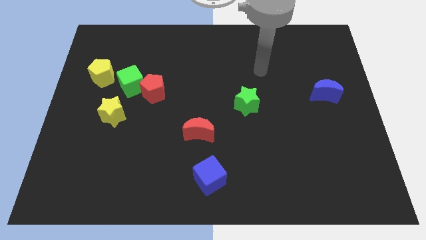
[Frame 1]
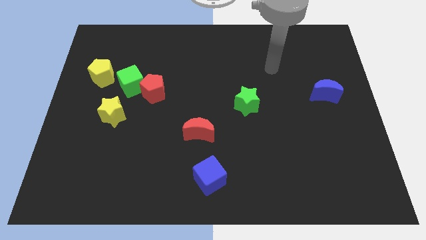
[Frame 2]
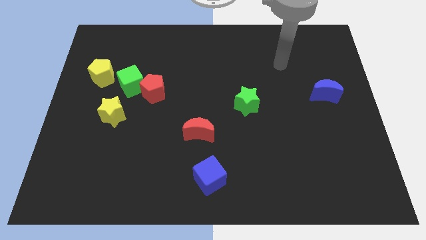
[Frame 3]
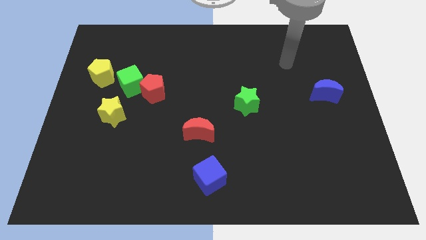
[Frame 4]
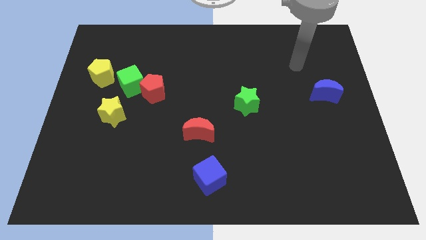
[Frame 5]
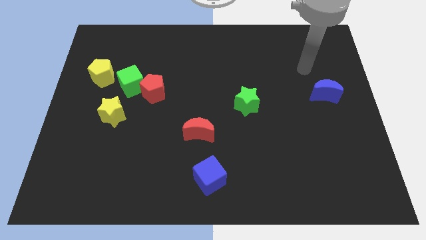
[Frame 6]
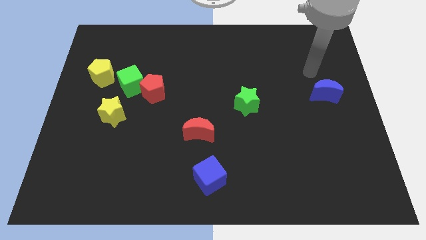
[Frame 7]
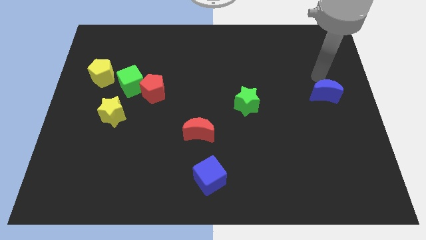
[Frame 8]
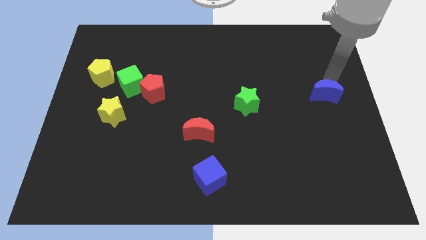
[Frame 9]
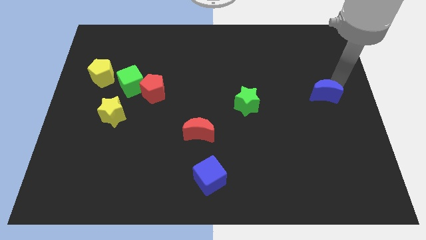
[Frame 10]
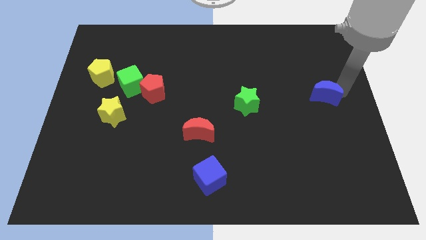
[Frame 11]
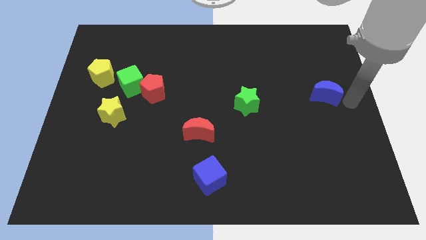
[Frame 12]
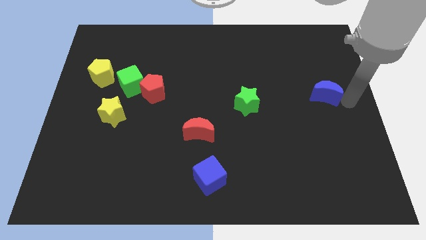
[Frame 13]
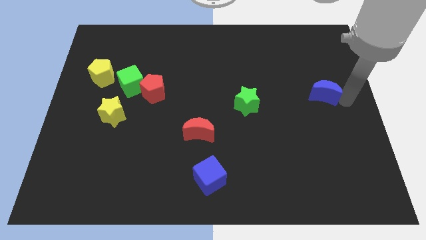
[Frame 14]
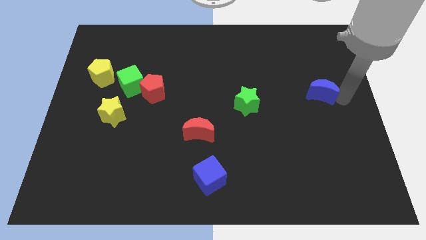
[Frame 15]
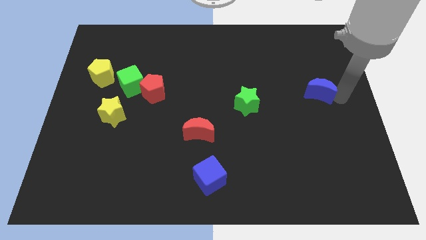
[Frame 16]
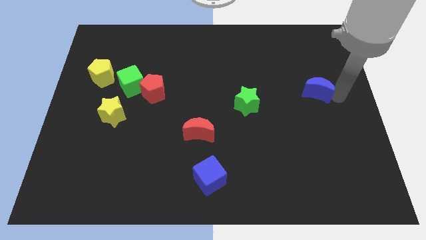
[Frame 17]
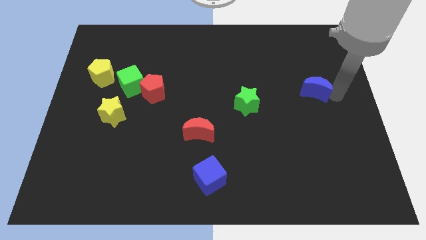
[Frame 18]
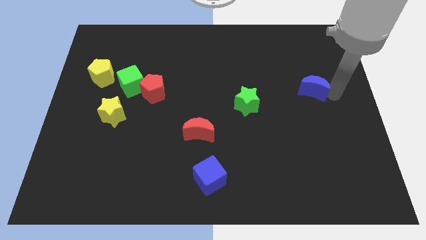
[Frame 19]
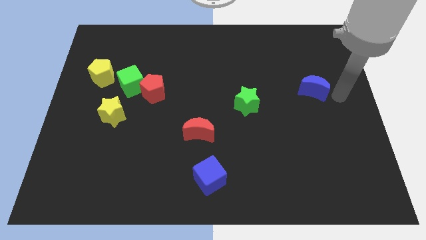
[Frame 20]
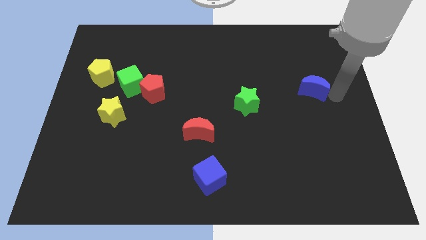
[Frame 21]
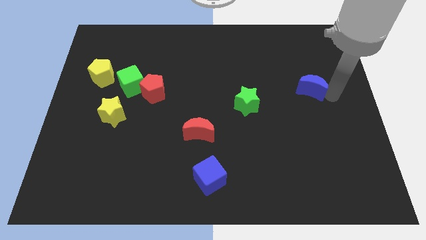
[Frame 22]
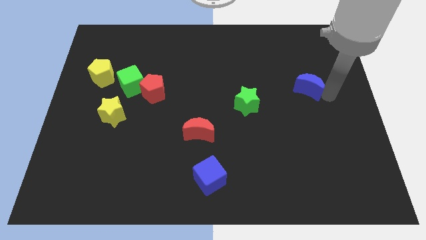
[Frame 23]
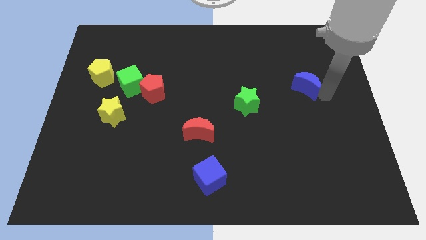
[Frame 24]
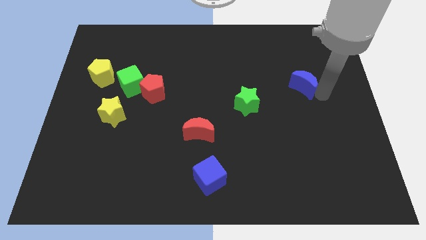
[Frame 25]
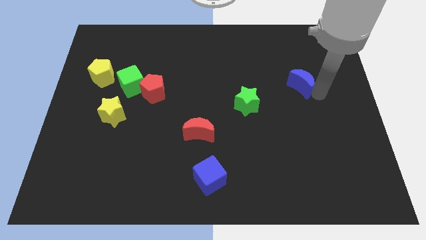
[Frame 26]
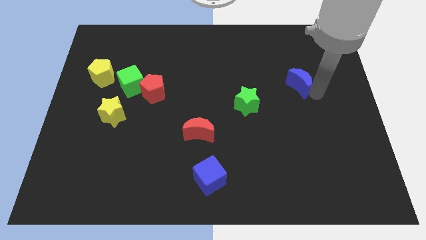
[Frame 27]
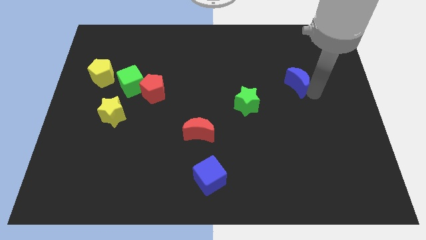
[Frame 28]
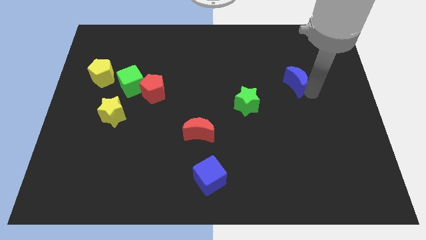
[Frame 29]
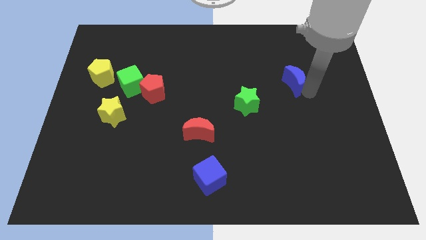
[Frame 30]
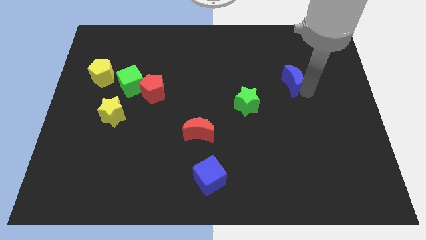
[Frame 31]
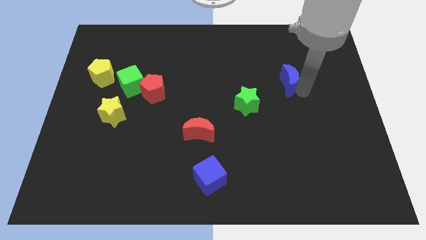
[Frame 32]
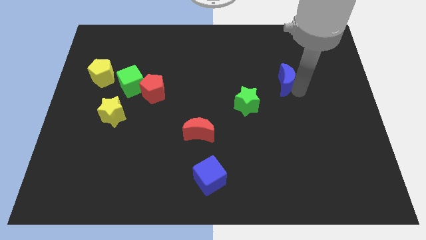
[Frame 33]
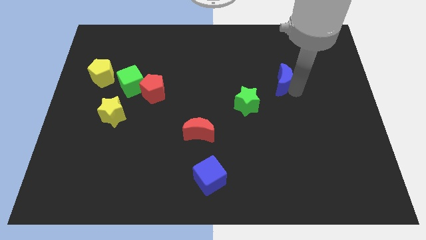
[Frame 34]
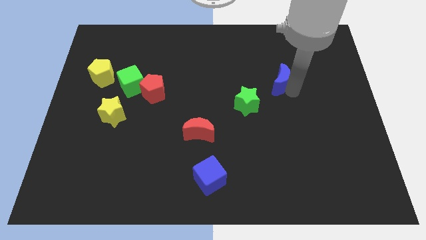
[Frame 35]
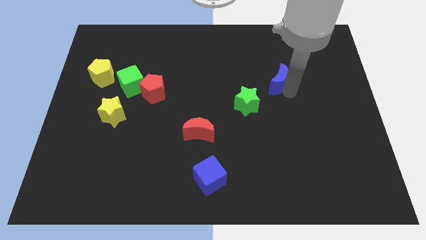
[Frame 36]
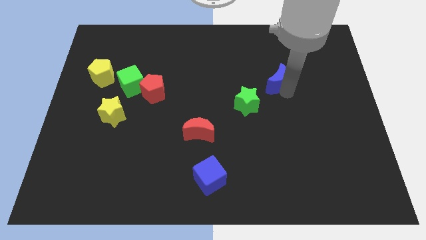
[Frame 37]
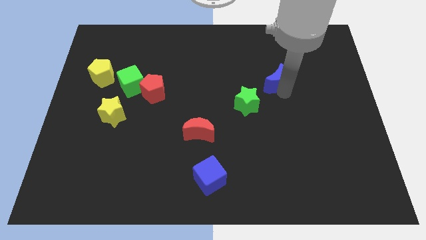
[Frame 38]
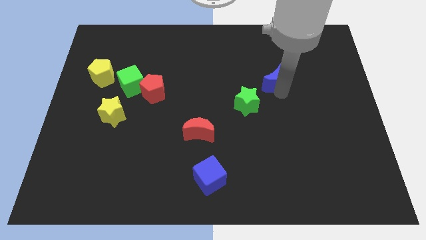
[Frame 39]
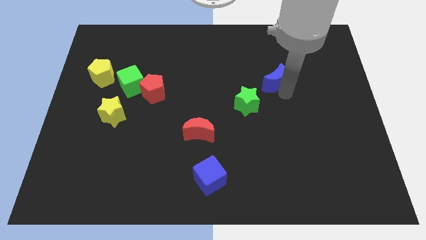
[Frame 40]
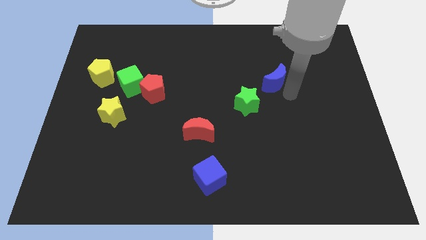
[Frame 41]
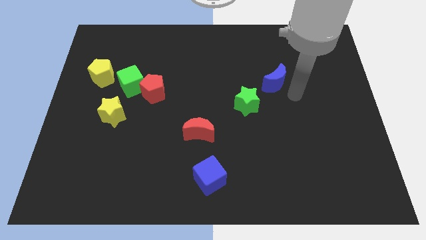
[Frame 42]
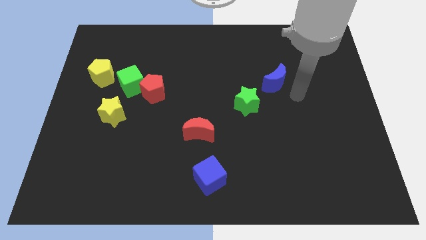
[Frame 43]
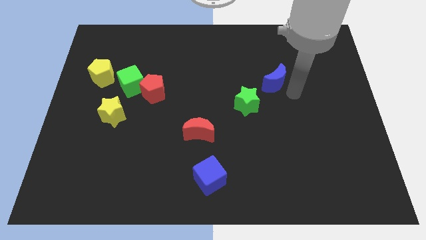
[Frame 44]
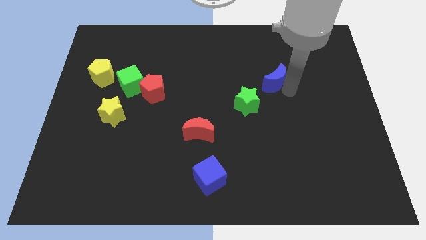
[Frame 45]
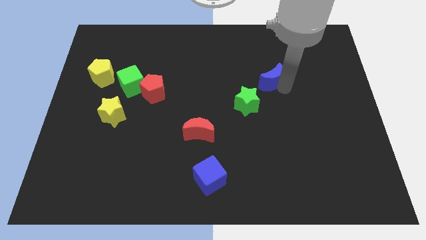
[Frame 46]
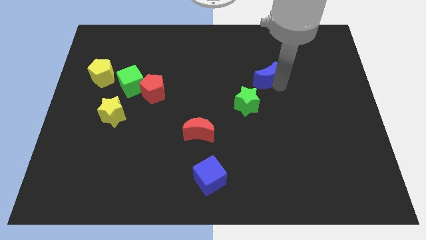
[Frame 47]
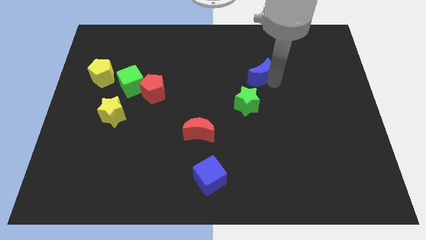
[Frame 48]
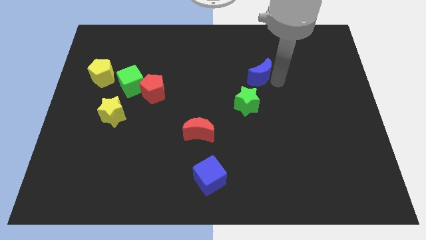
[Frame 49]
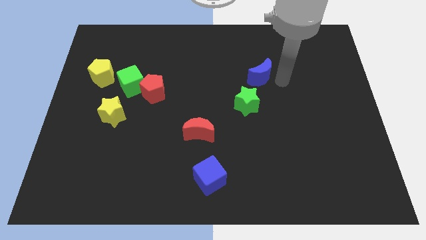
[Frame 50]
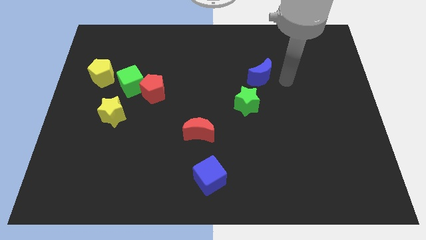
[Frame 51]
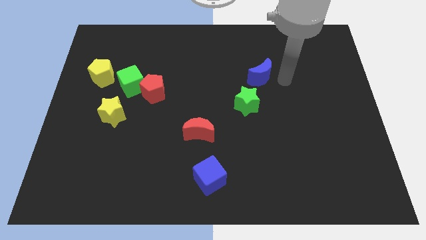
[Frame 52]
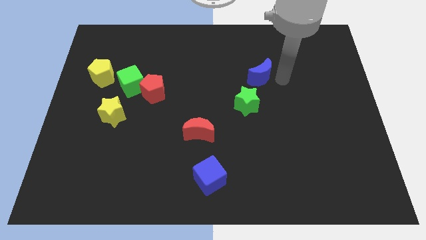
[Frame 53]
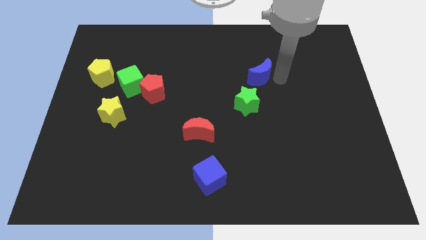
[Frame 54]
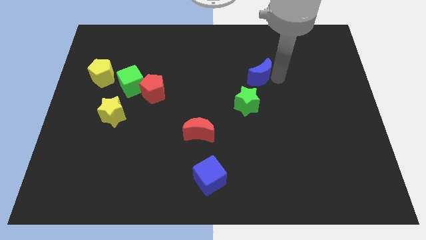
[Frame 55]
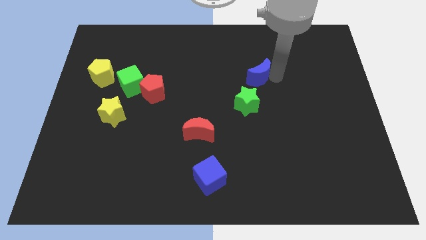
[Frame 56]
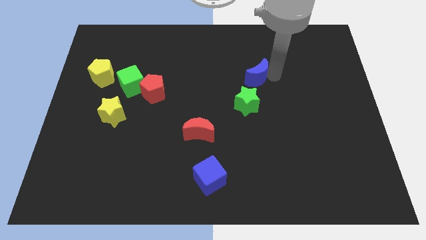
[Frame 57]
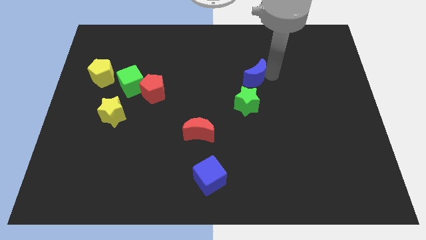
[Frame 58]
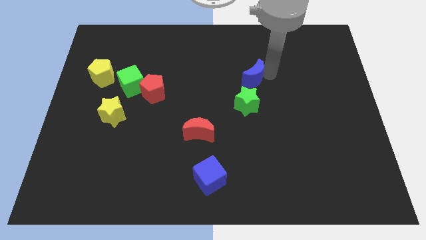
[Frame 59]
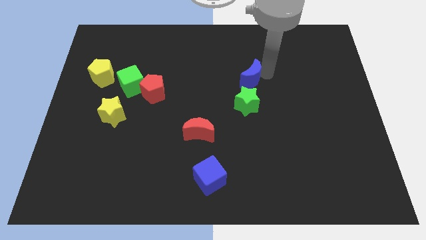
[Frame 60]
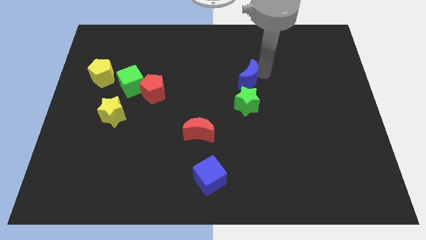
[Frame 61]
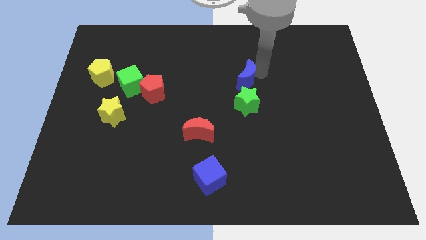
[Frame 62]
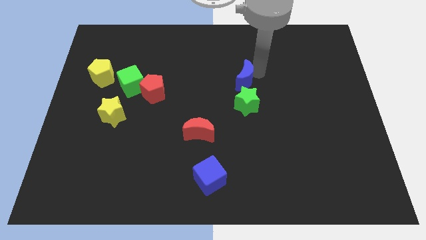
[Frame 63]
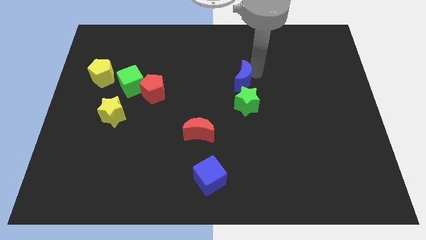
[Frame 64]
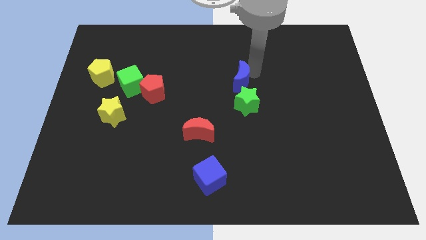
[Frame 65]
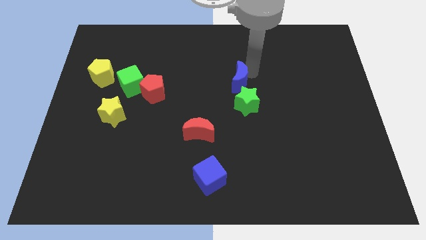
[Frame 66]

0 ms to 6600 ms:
slide the blue moon left

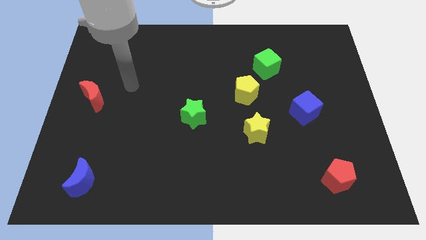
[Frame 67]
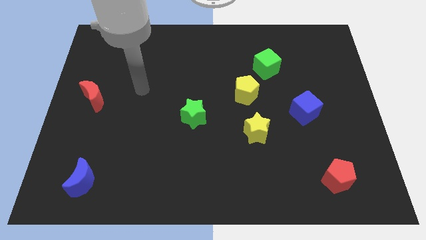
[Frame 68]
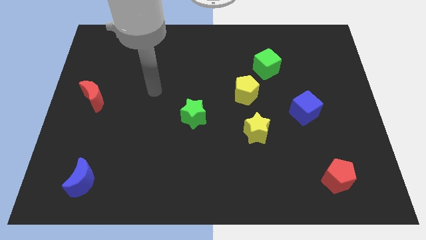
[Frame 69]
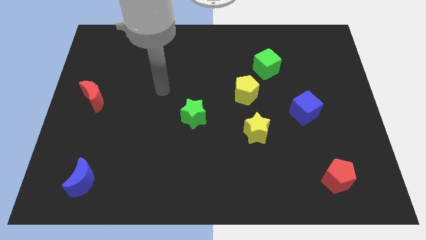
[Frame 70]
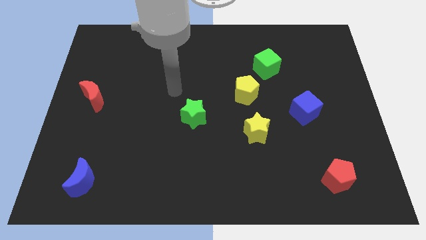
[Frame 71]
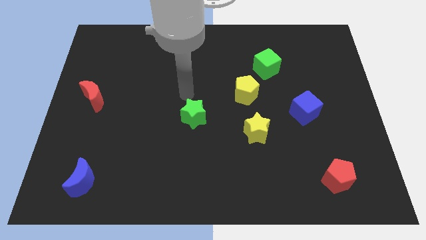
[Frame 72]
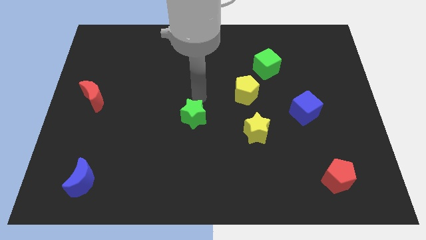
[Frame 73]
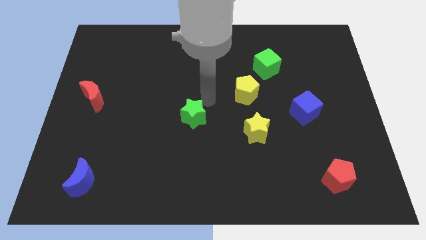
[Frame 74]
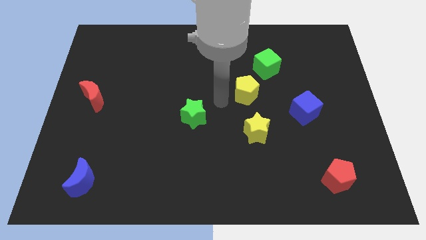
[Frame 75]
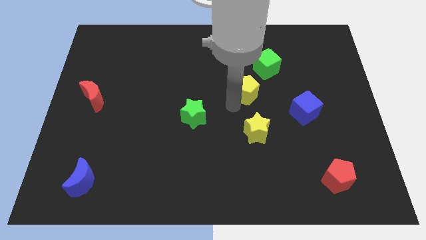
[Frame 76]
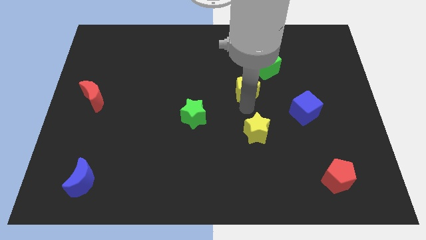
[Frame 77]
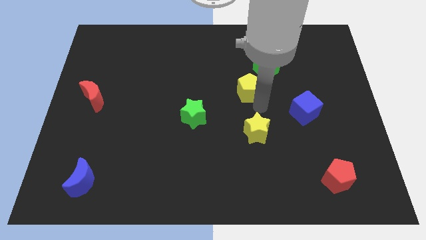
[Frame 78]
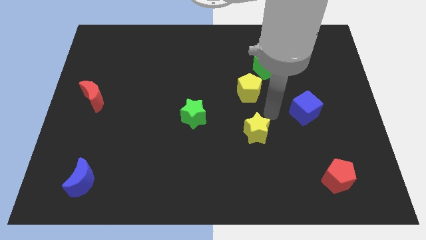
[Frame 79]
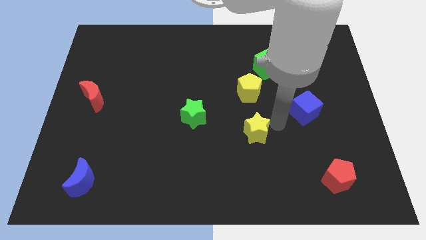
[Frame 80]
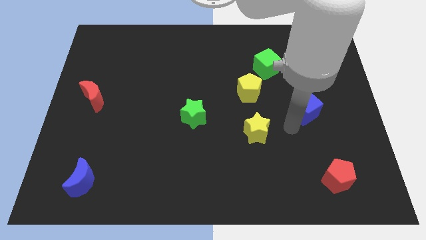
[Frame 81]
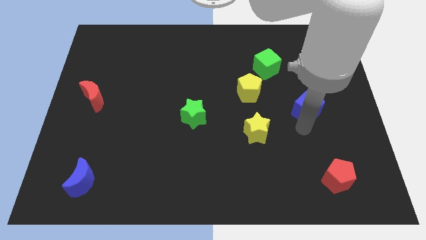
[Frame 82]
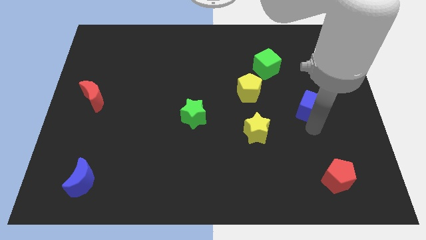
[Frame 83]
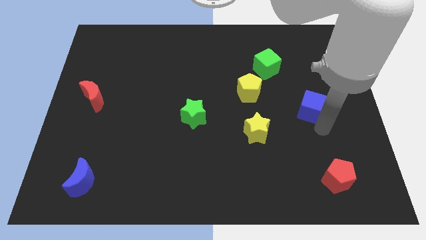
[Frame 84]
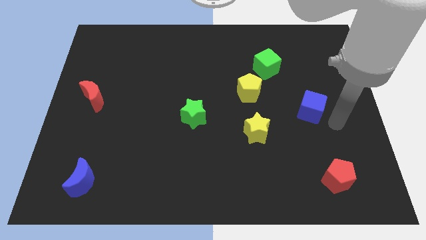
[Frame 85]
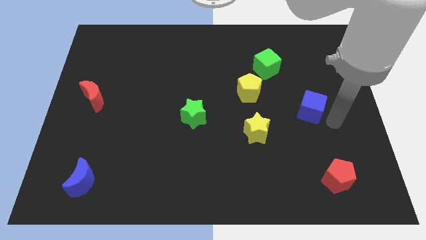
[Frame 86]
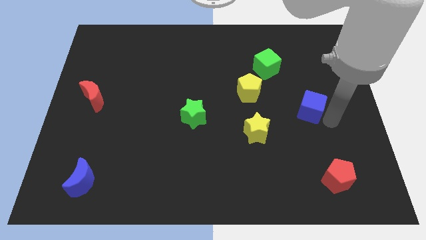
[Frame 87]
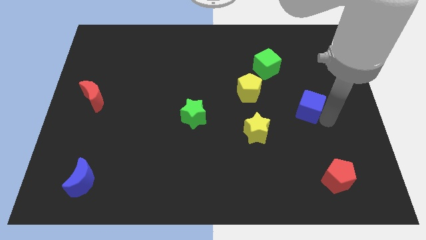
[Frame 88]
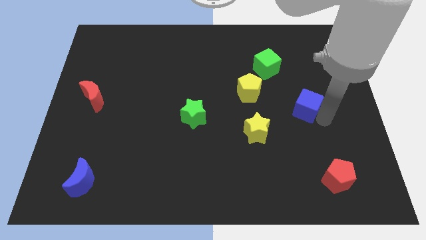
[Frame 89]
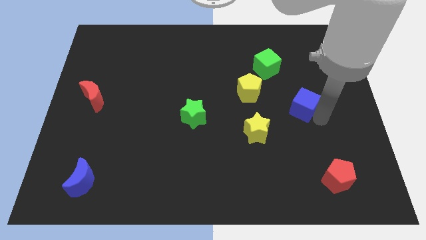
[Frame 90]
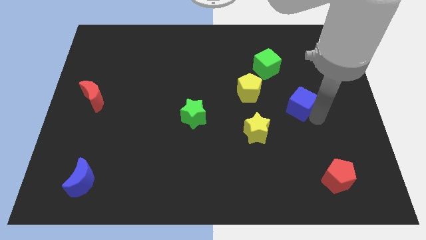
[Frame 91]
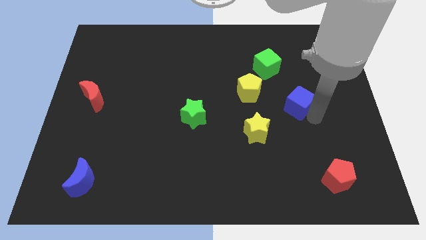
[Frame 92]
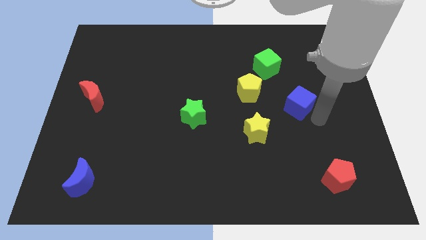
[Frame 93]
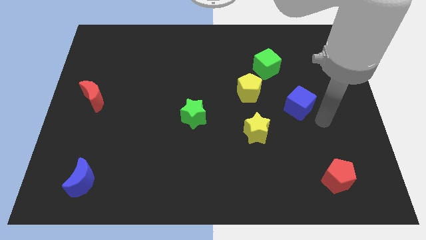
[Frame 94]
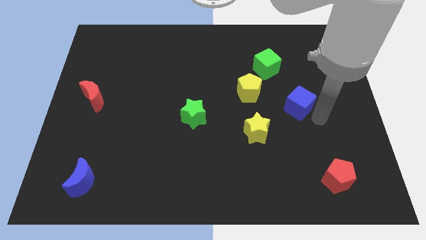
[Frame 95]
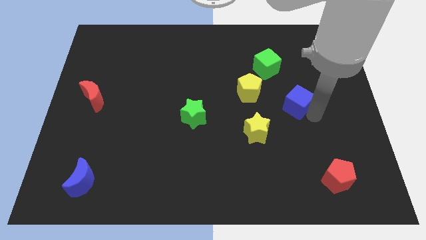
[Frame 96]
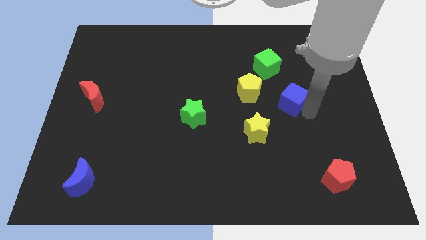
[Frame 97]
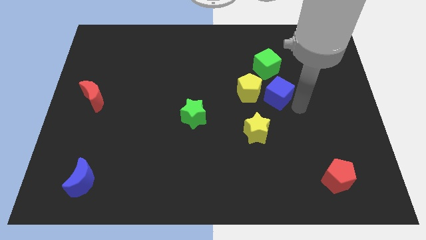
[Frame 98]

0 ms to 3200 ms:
slide the blue cube up and then to the left a little bit
